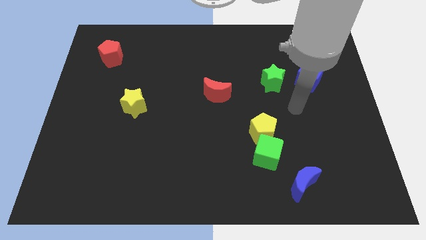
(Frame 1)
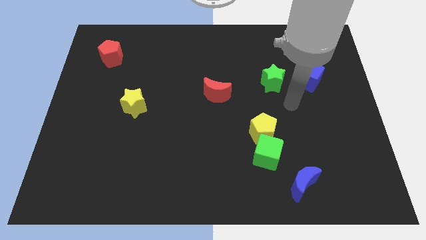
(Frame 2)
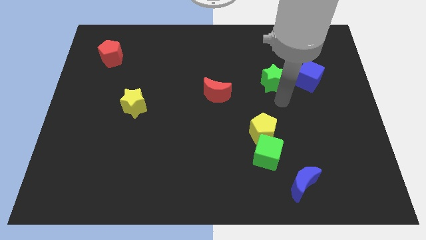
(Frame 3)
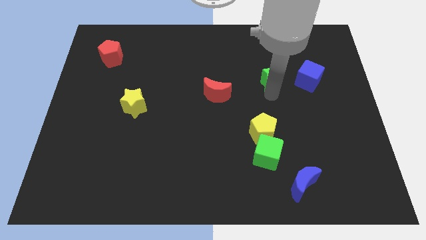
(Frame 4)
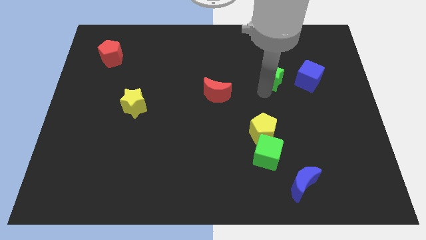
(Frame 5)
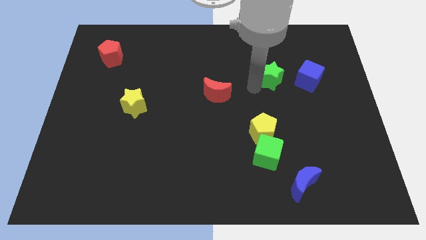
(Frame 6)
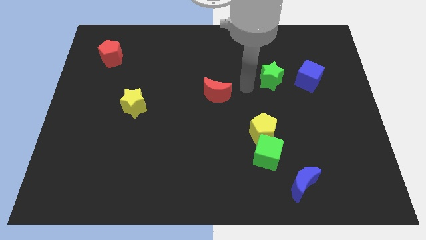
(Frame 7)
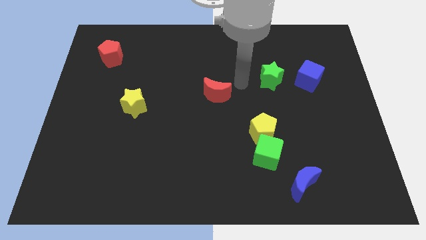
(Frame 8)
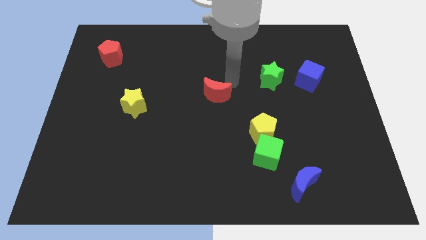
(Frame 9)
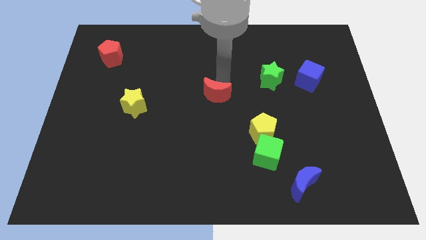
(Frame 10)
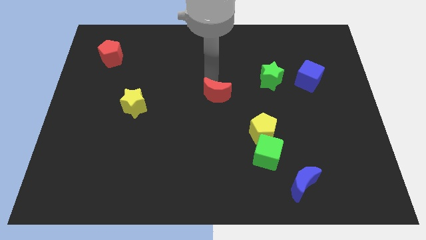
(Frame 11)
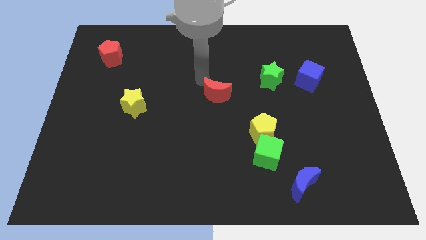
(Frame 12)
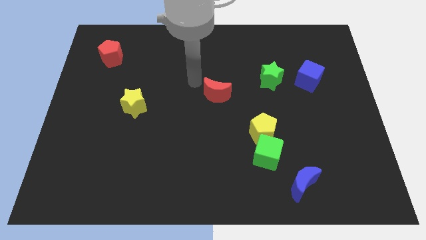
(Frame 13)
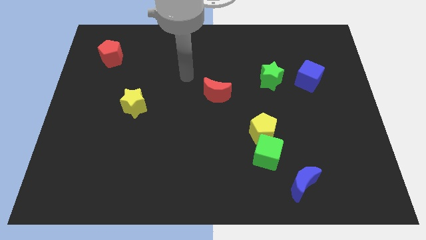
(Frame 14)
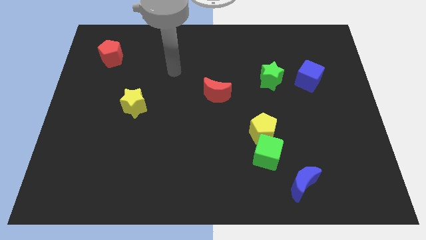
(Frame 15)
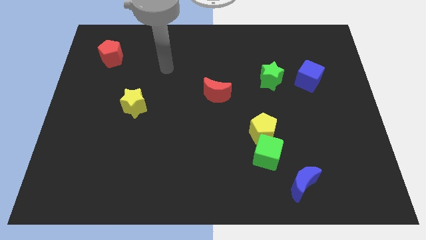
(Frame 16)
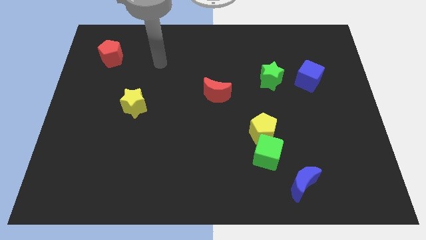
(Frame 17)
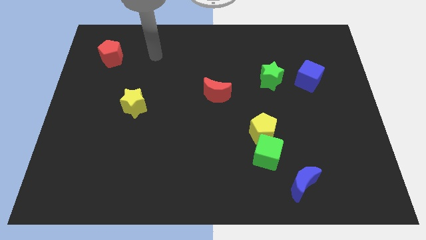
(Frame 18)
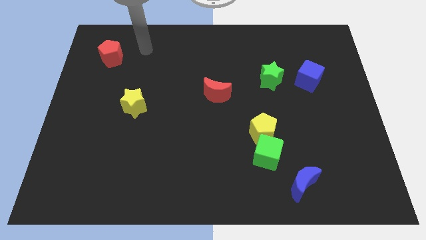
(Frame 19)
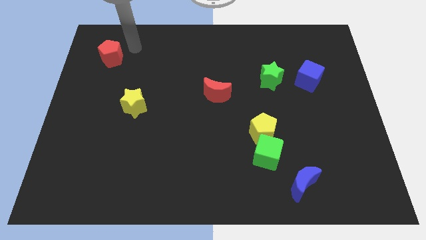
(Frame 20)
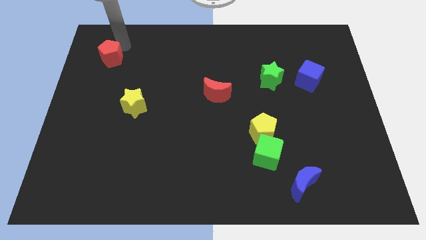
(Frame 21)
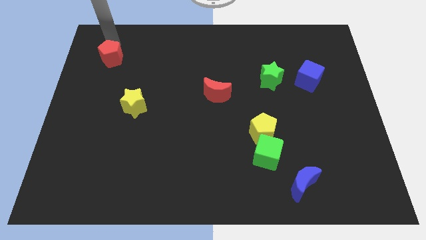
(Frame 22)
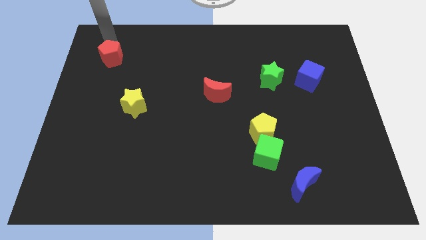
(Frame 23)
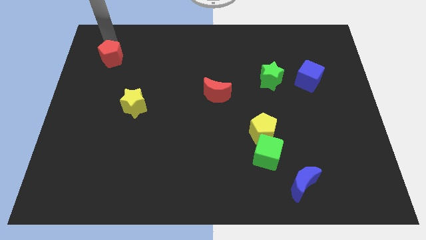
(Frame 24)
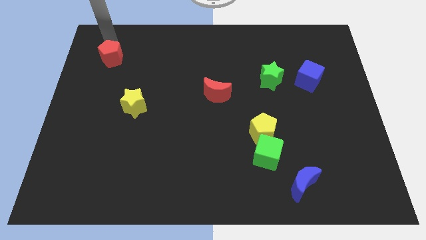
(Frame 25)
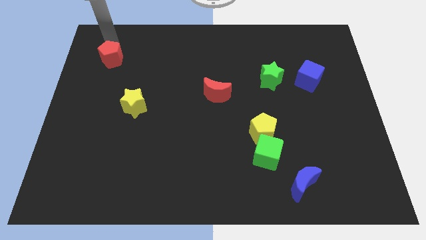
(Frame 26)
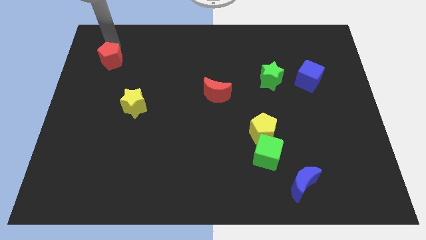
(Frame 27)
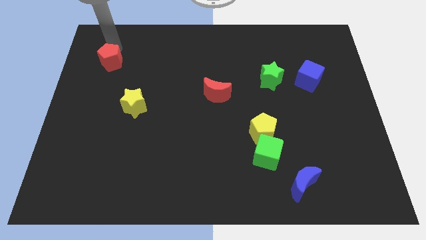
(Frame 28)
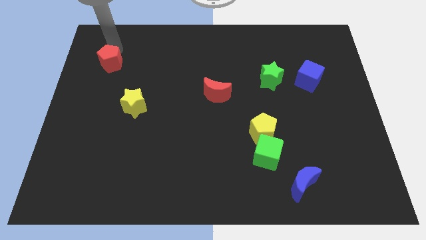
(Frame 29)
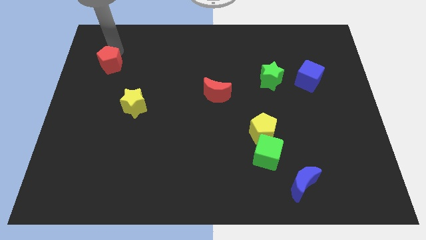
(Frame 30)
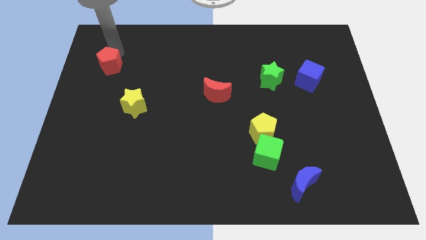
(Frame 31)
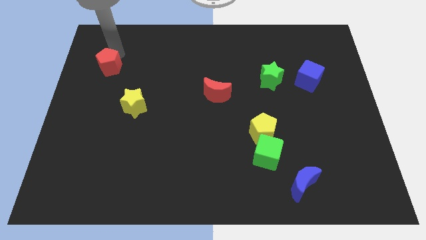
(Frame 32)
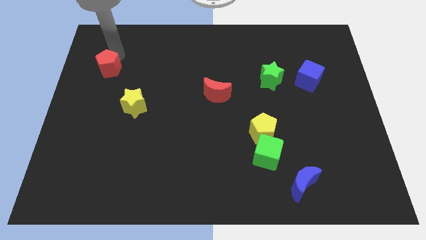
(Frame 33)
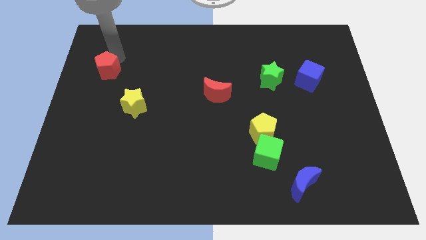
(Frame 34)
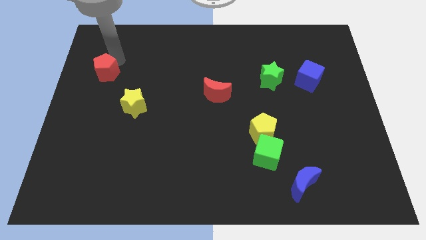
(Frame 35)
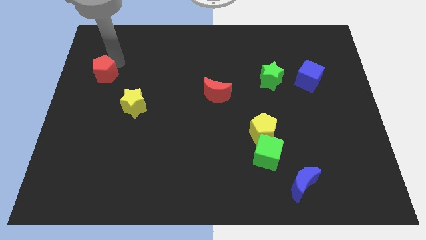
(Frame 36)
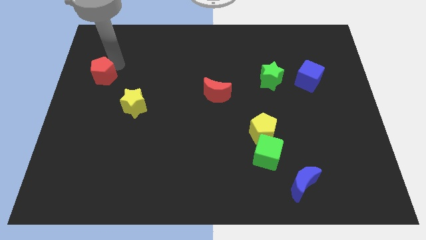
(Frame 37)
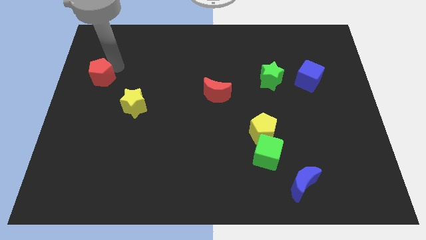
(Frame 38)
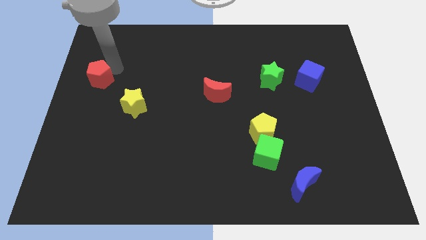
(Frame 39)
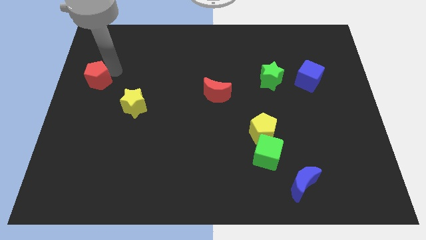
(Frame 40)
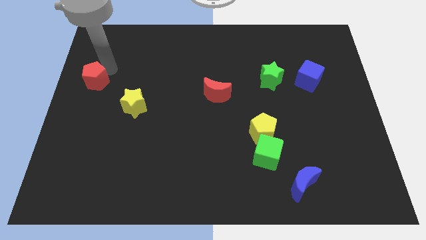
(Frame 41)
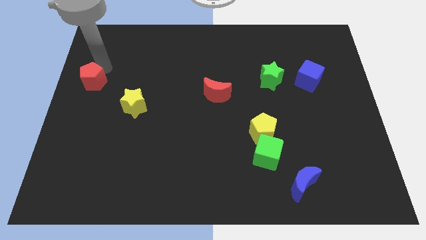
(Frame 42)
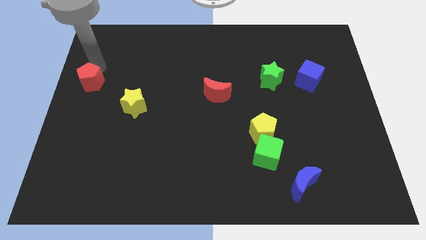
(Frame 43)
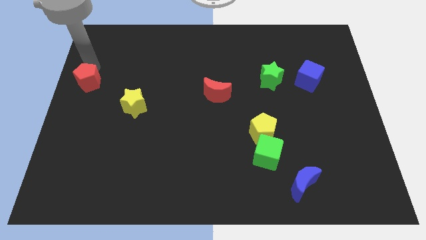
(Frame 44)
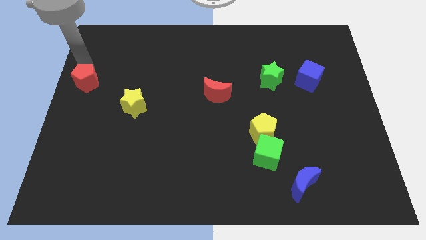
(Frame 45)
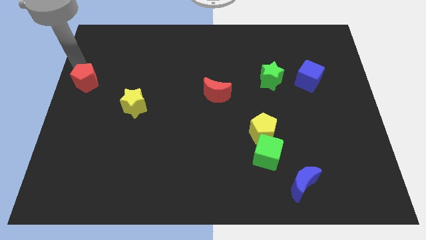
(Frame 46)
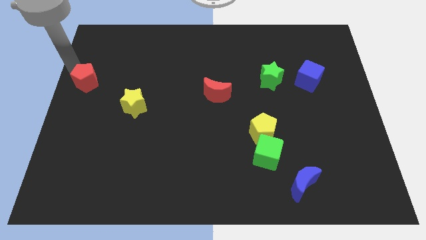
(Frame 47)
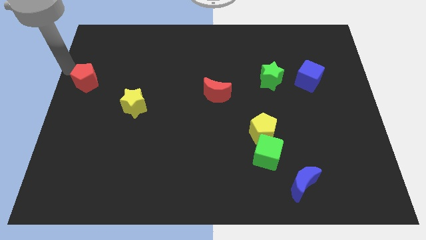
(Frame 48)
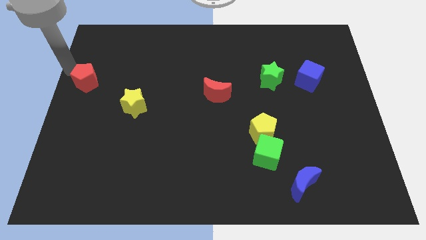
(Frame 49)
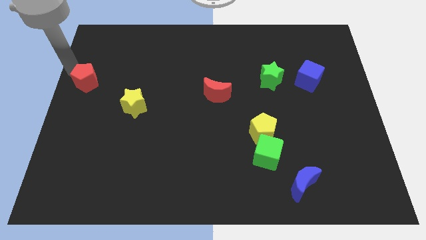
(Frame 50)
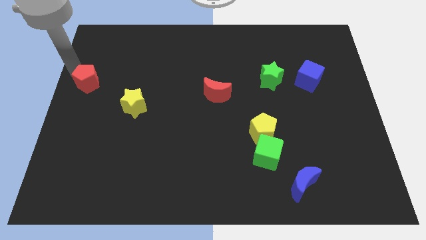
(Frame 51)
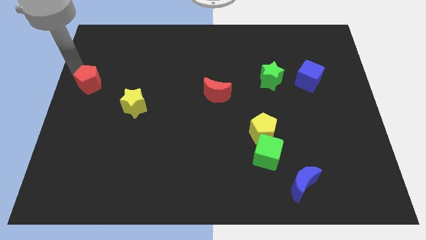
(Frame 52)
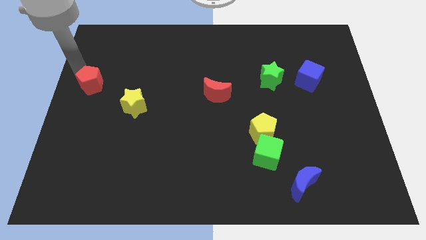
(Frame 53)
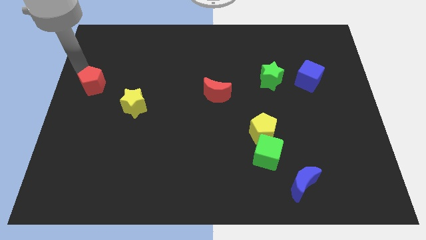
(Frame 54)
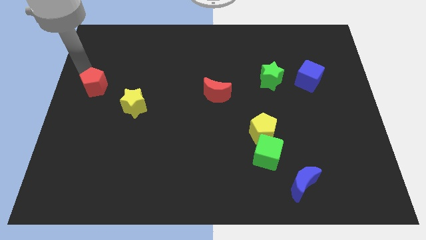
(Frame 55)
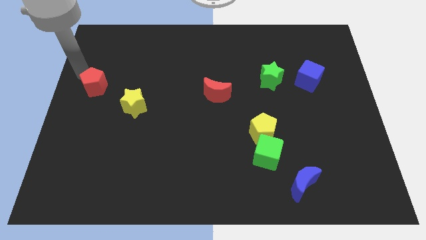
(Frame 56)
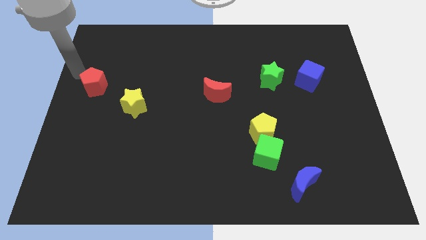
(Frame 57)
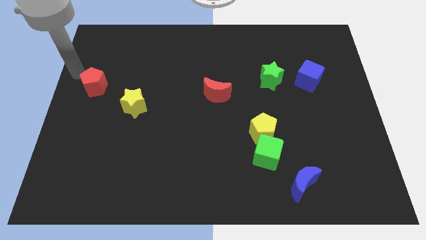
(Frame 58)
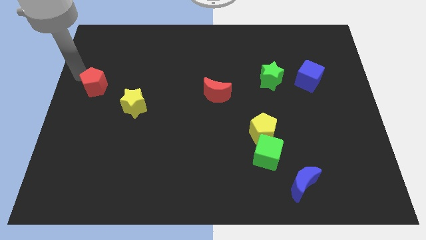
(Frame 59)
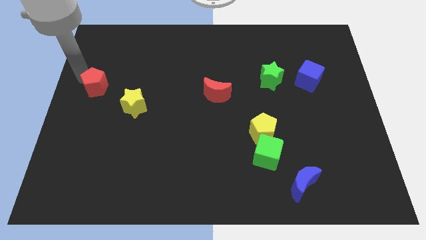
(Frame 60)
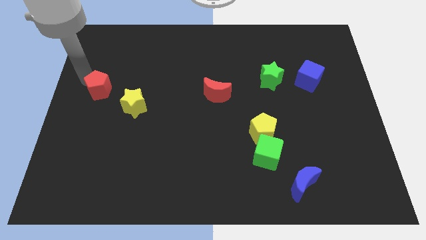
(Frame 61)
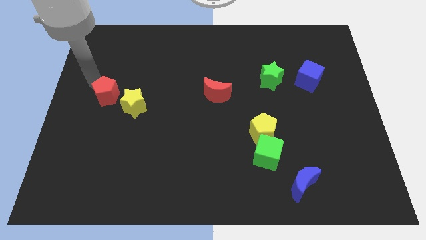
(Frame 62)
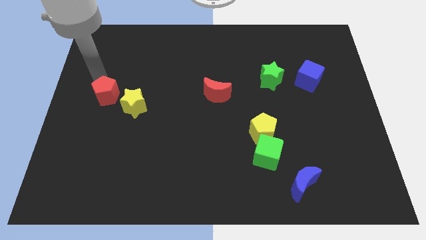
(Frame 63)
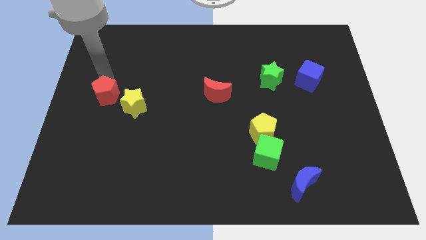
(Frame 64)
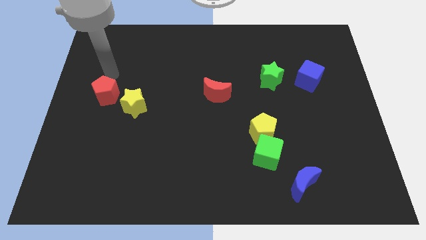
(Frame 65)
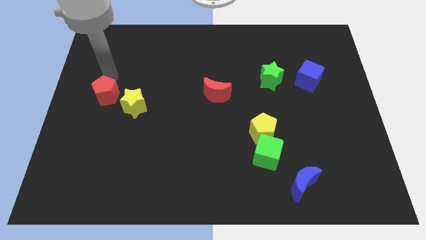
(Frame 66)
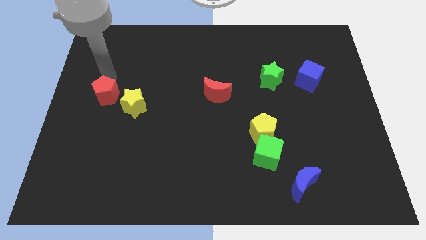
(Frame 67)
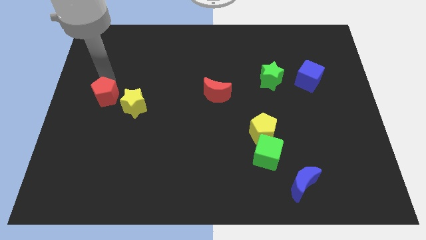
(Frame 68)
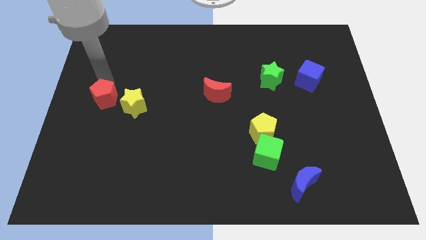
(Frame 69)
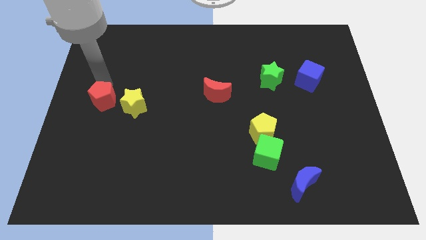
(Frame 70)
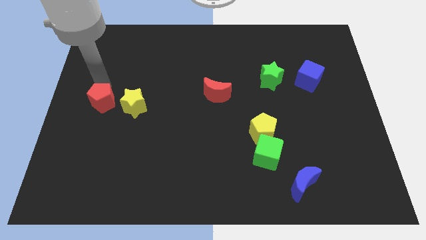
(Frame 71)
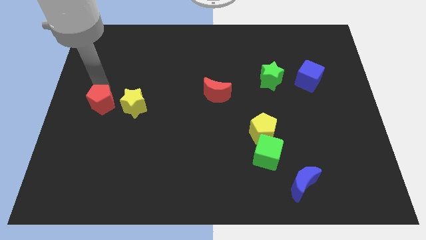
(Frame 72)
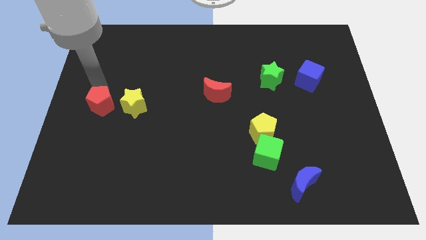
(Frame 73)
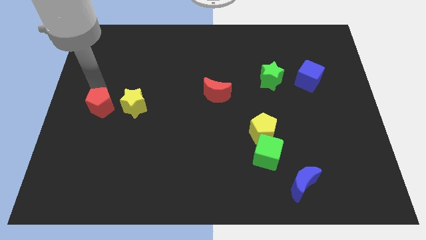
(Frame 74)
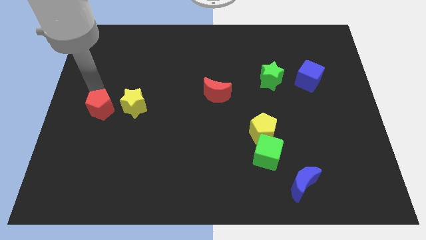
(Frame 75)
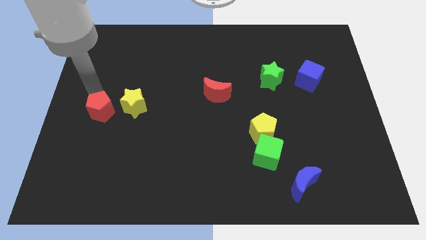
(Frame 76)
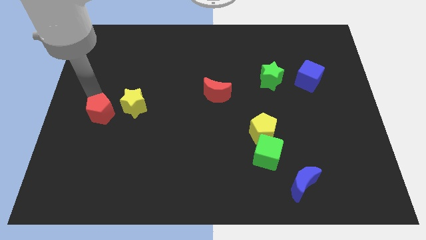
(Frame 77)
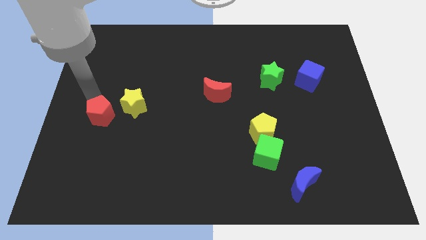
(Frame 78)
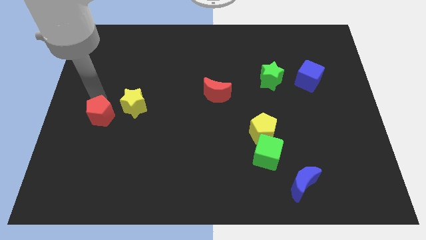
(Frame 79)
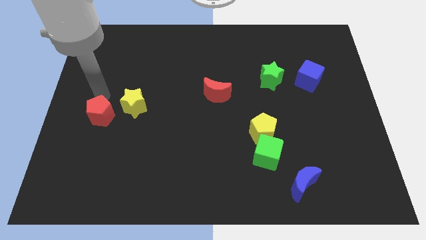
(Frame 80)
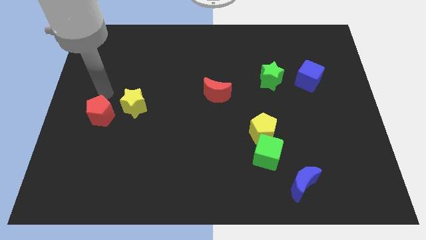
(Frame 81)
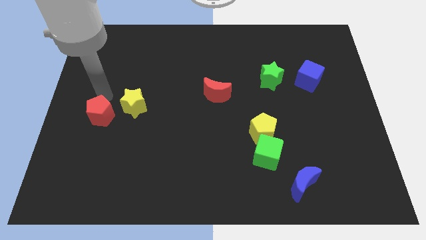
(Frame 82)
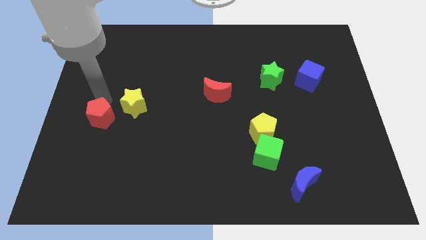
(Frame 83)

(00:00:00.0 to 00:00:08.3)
slide the red pentagon down
